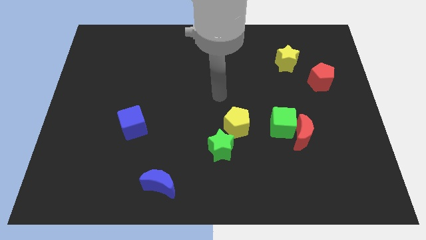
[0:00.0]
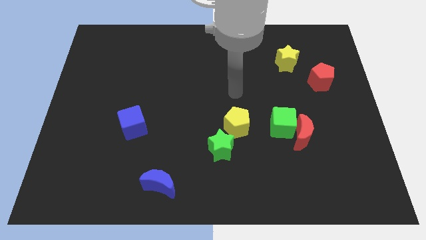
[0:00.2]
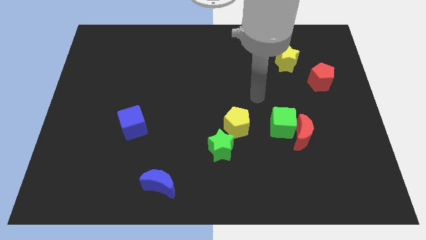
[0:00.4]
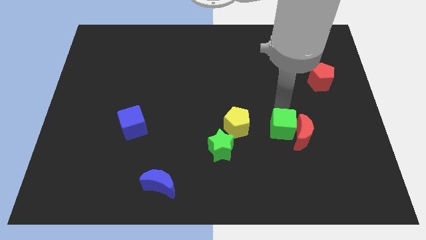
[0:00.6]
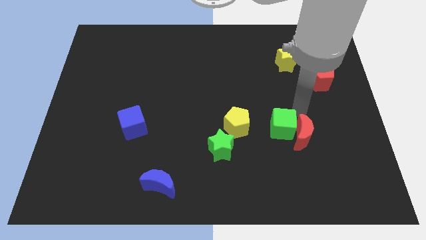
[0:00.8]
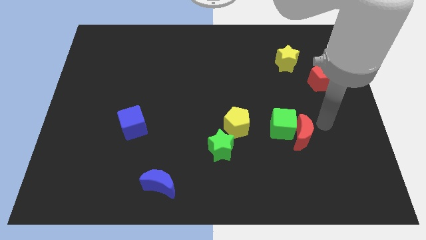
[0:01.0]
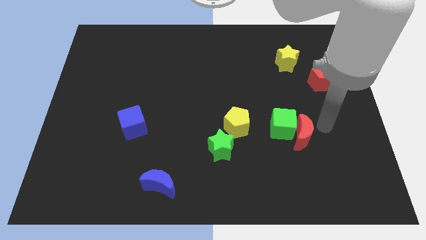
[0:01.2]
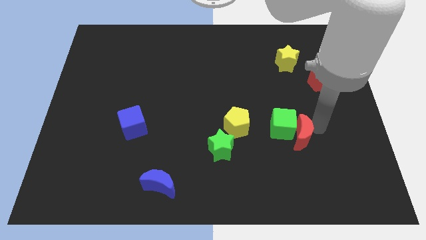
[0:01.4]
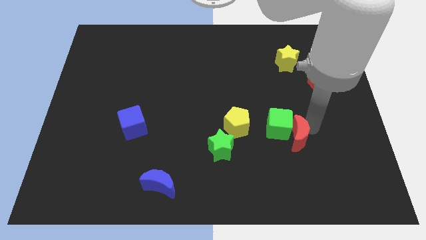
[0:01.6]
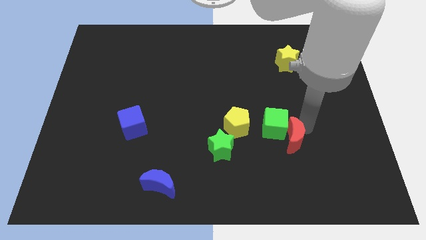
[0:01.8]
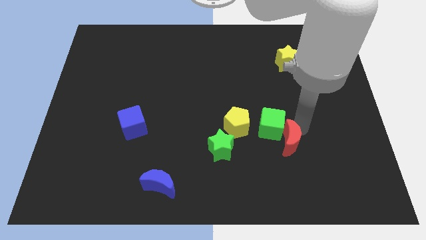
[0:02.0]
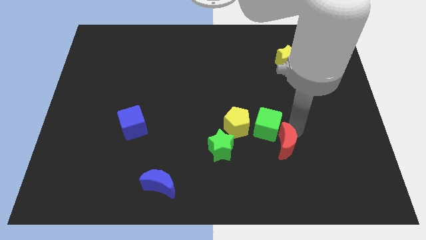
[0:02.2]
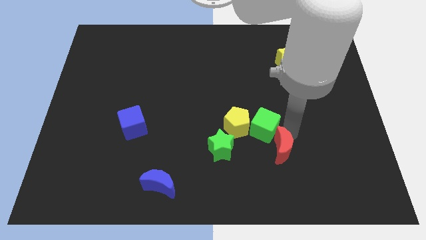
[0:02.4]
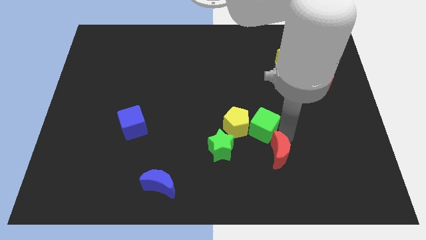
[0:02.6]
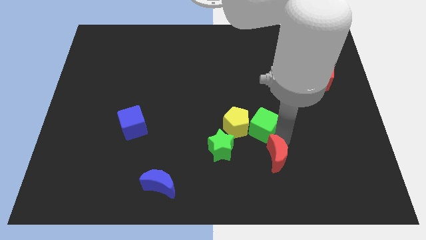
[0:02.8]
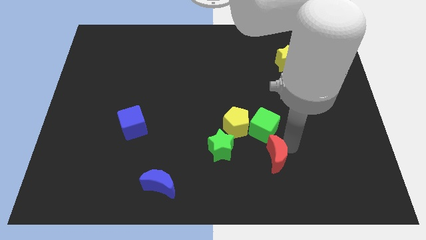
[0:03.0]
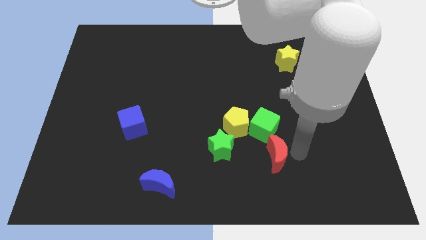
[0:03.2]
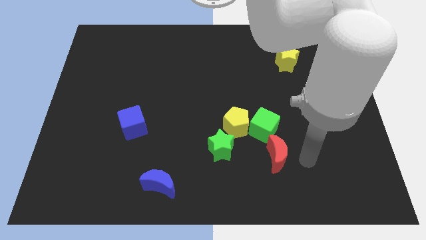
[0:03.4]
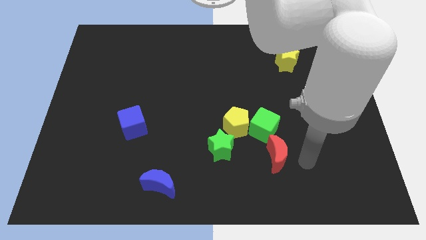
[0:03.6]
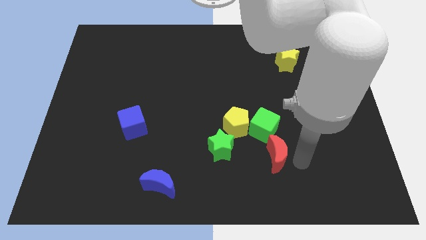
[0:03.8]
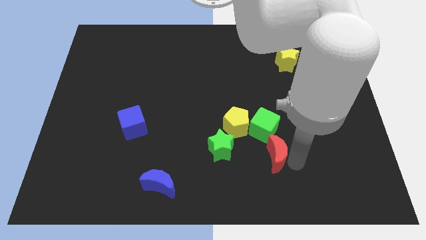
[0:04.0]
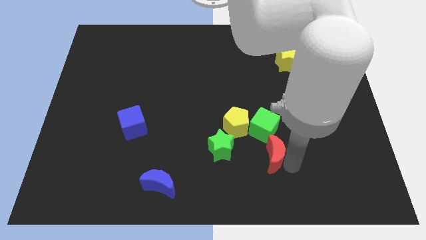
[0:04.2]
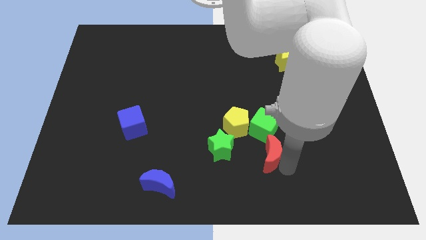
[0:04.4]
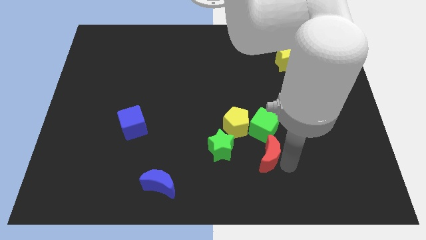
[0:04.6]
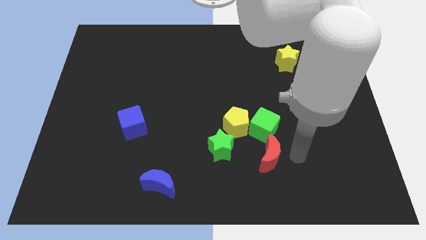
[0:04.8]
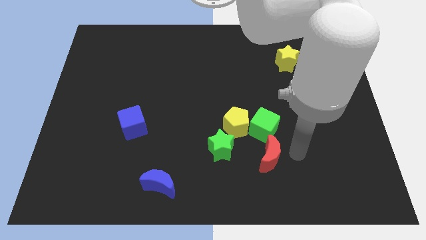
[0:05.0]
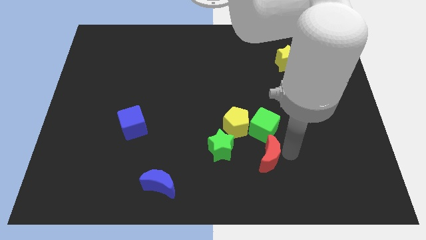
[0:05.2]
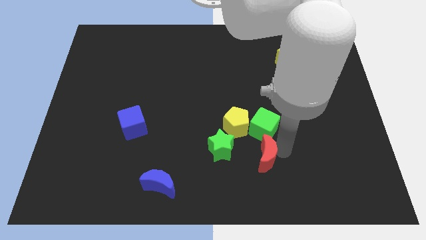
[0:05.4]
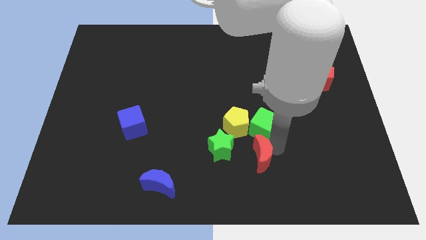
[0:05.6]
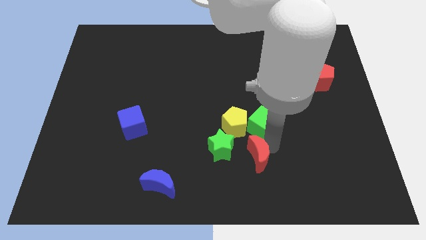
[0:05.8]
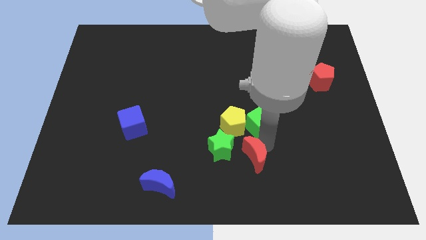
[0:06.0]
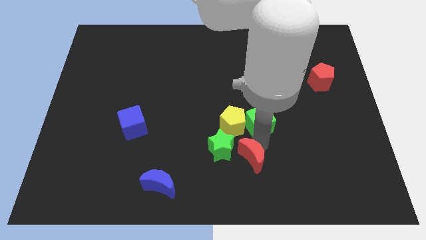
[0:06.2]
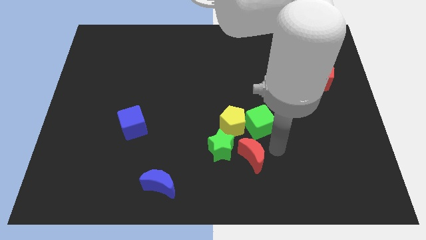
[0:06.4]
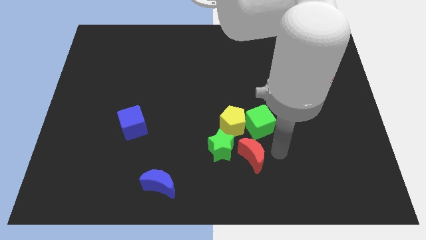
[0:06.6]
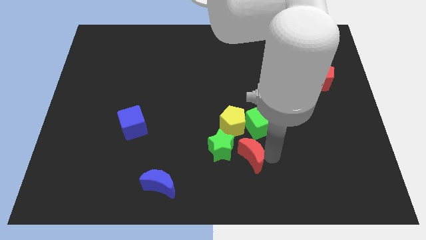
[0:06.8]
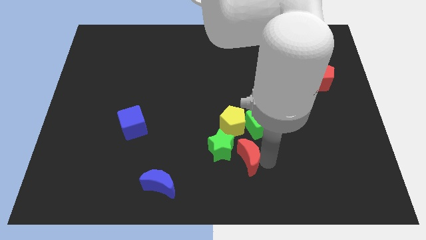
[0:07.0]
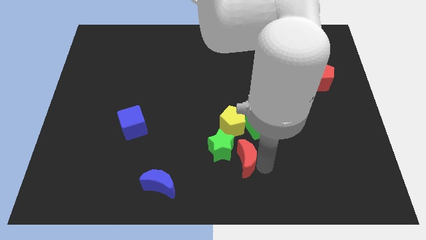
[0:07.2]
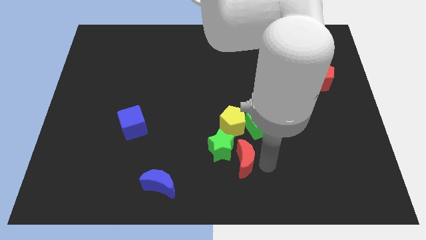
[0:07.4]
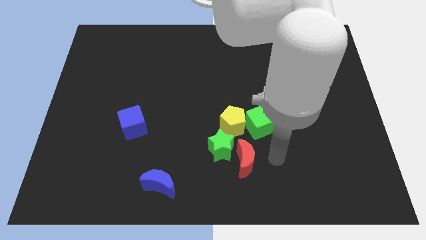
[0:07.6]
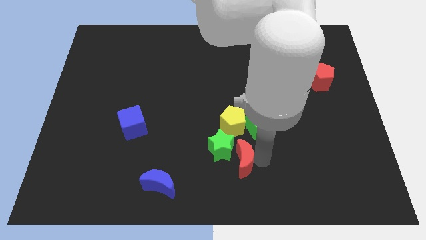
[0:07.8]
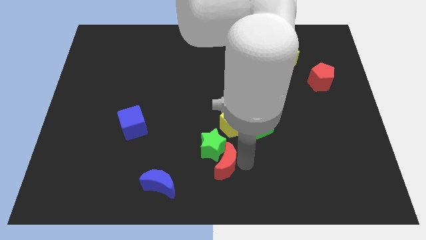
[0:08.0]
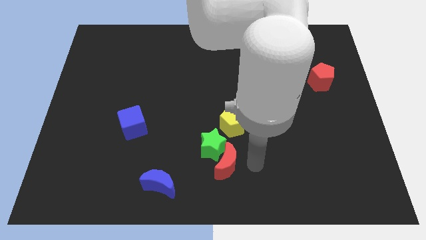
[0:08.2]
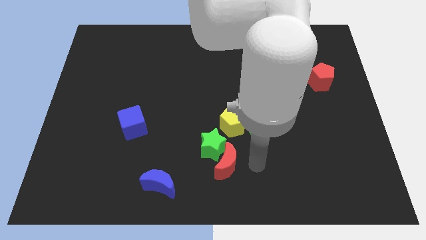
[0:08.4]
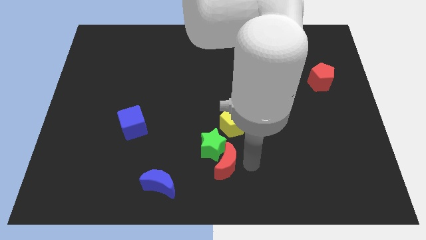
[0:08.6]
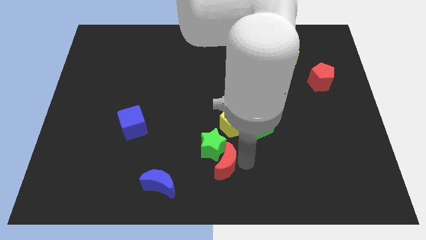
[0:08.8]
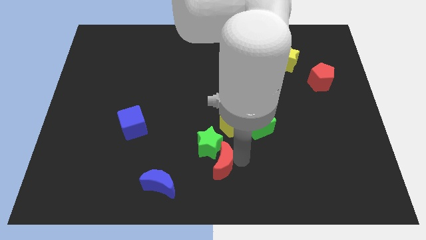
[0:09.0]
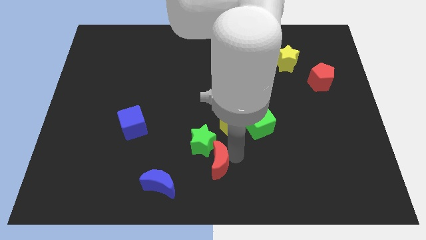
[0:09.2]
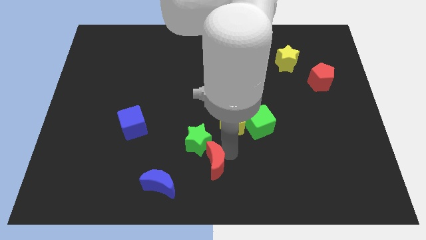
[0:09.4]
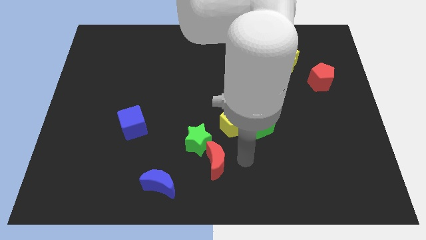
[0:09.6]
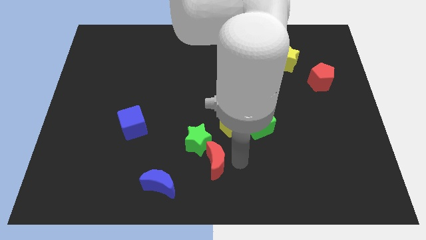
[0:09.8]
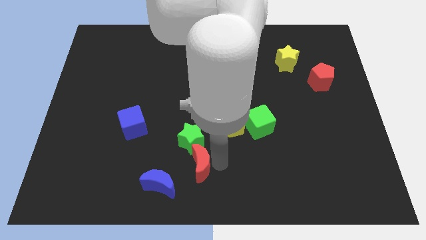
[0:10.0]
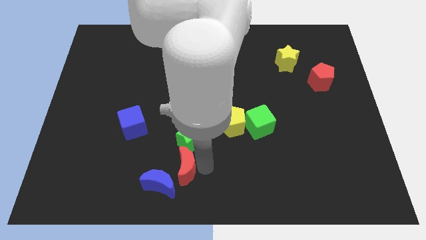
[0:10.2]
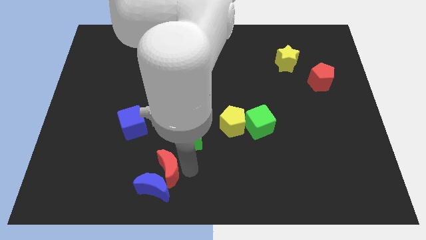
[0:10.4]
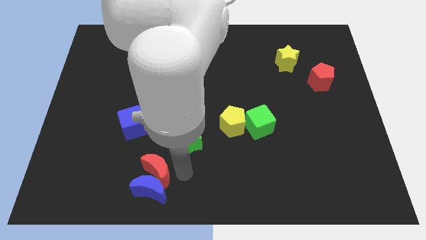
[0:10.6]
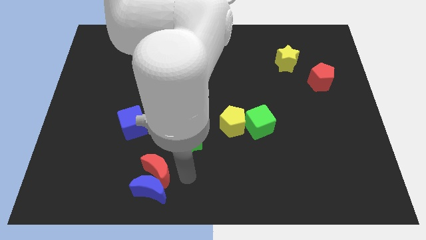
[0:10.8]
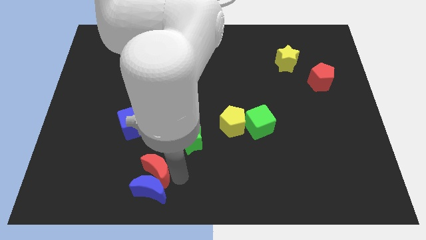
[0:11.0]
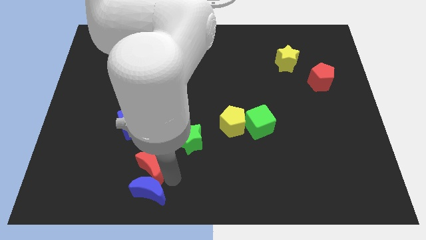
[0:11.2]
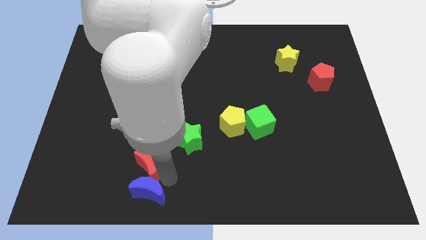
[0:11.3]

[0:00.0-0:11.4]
put the red moon below the blue cube

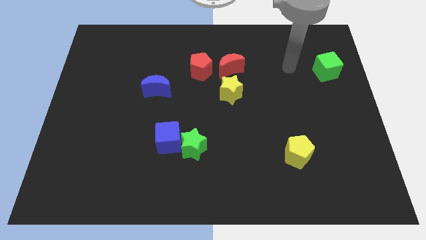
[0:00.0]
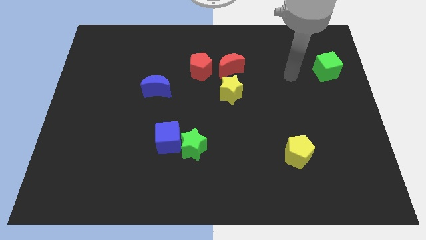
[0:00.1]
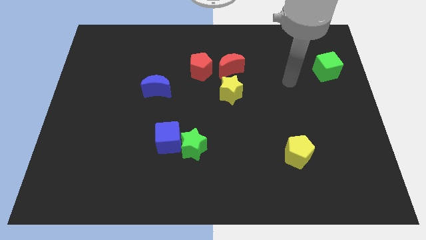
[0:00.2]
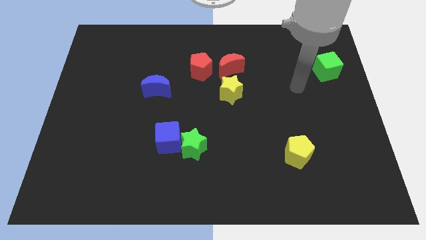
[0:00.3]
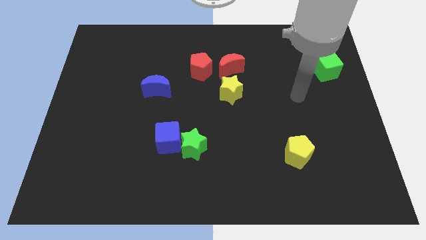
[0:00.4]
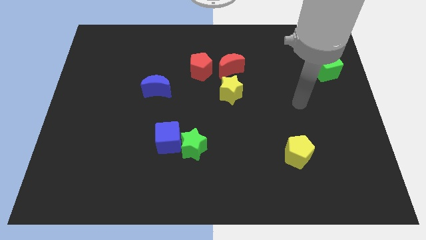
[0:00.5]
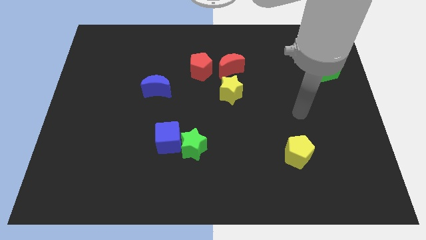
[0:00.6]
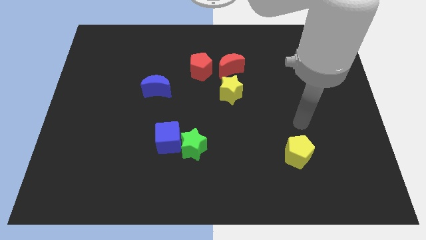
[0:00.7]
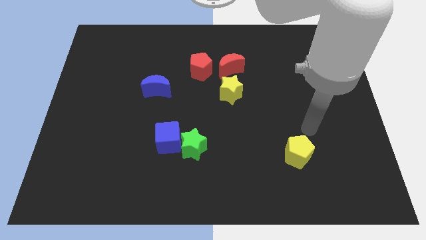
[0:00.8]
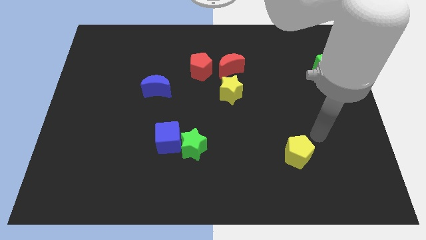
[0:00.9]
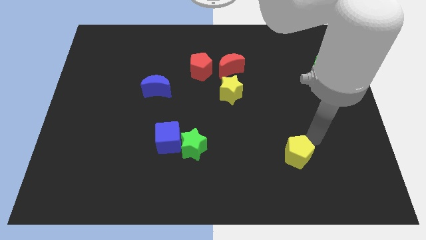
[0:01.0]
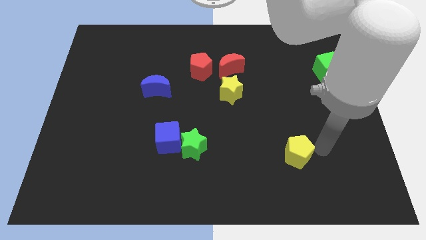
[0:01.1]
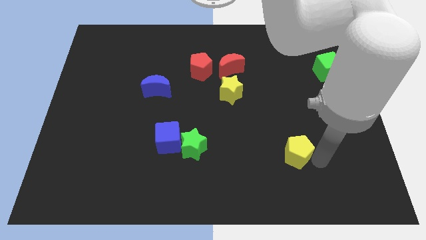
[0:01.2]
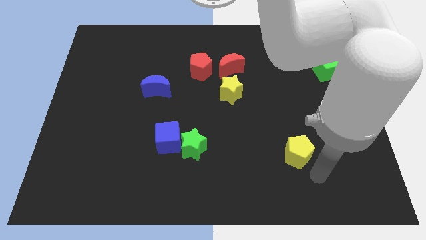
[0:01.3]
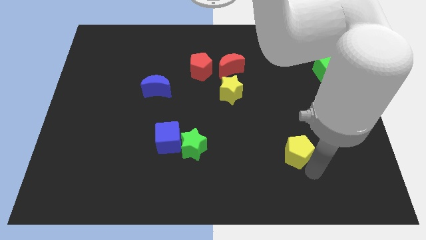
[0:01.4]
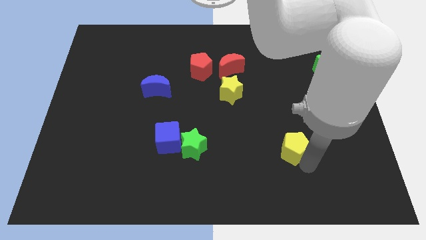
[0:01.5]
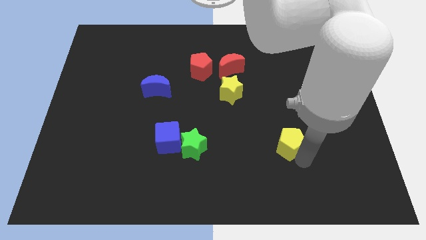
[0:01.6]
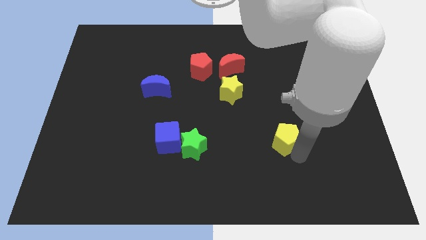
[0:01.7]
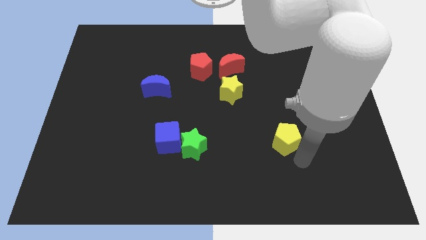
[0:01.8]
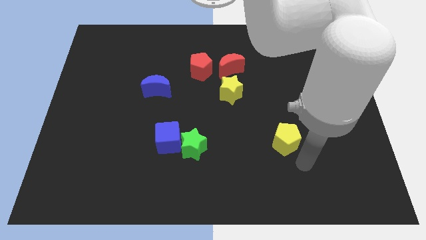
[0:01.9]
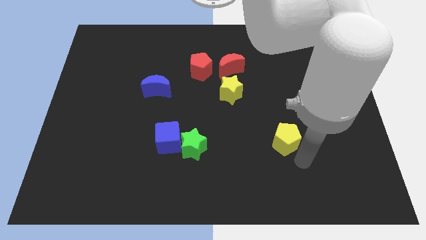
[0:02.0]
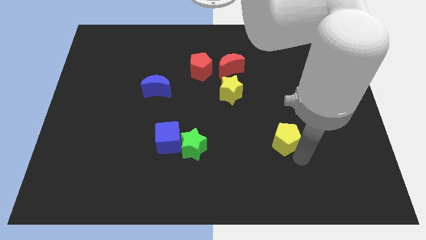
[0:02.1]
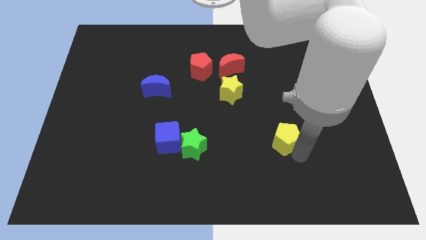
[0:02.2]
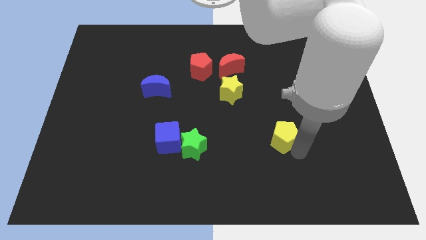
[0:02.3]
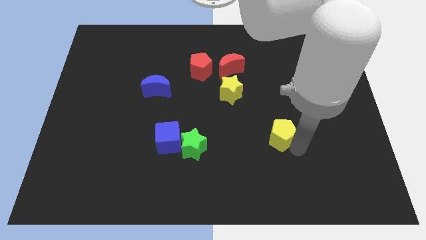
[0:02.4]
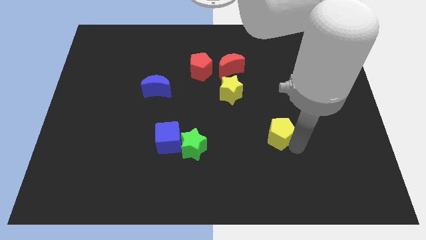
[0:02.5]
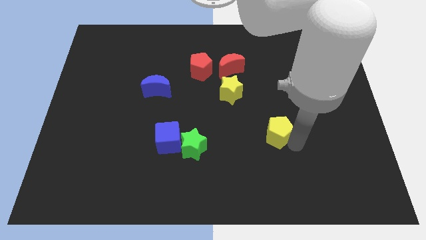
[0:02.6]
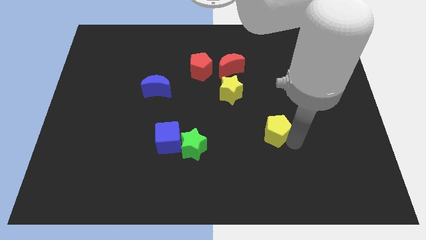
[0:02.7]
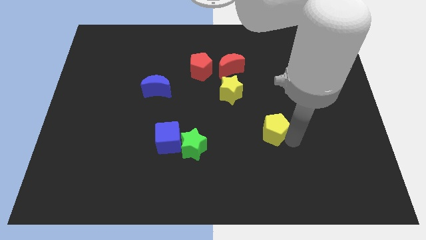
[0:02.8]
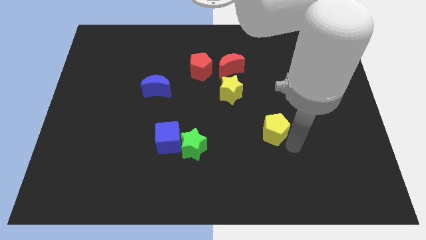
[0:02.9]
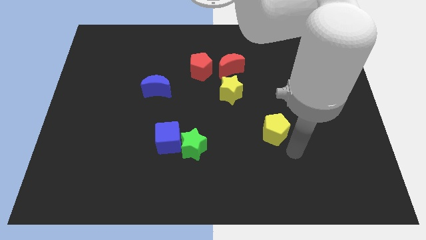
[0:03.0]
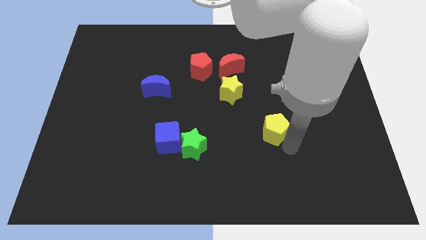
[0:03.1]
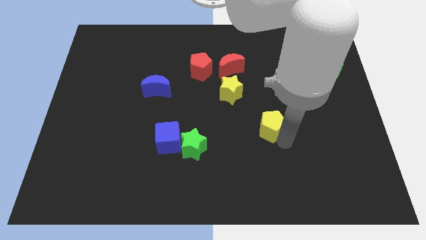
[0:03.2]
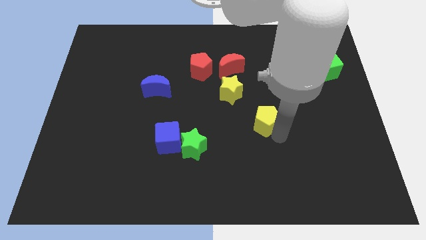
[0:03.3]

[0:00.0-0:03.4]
move the yellow pentagon to the bottom right of the yellow star
